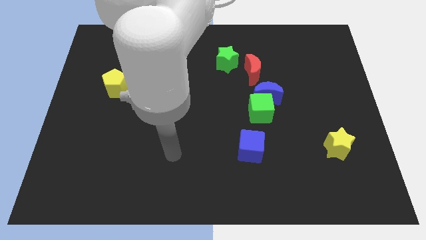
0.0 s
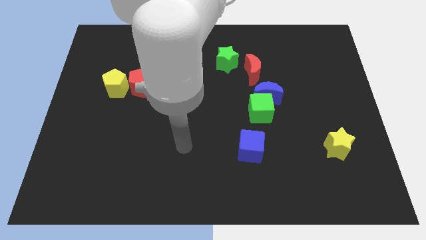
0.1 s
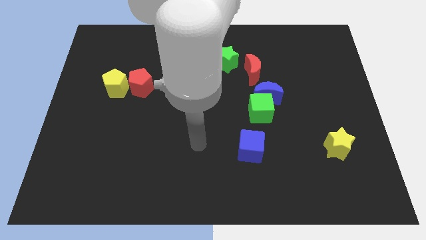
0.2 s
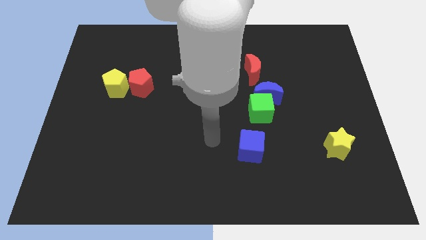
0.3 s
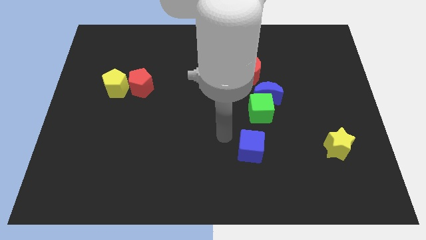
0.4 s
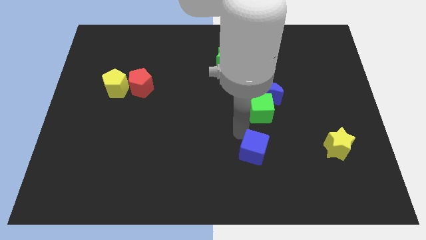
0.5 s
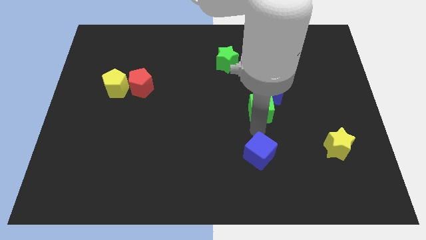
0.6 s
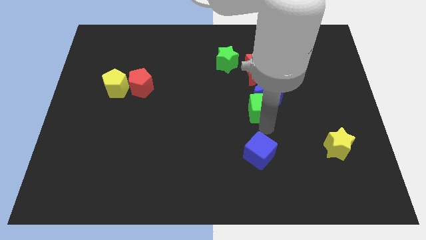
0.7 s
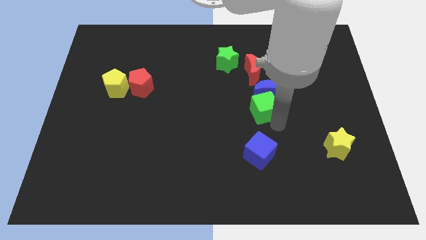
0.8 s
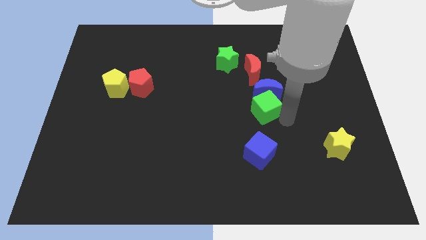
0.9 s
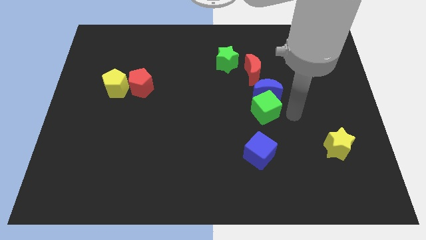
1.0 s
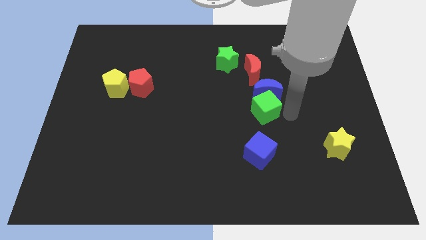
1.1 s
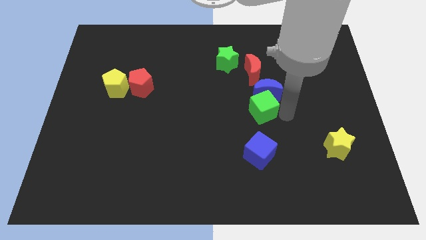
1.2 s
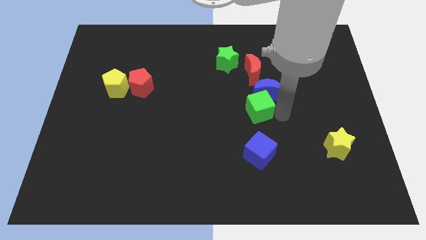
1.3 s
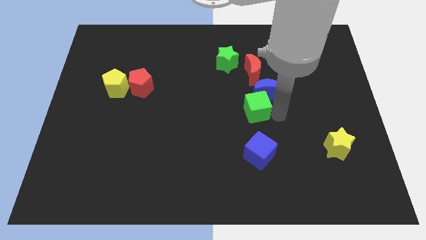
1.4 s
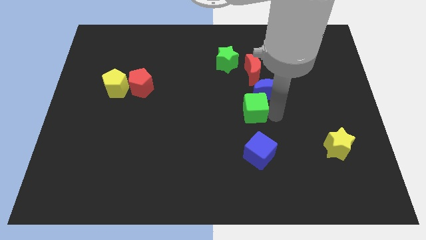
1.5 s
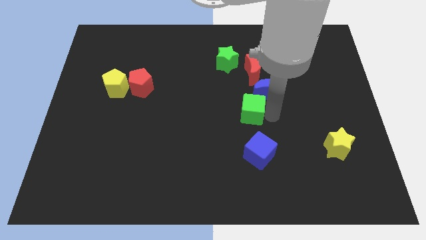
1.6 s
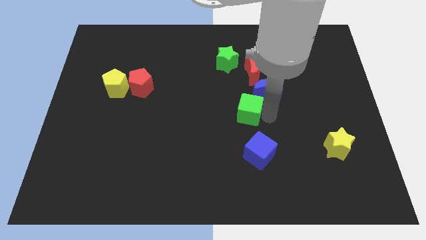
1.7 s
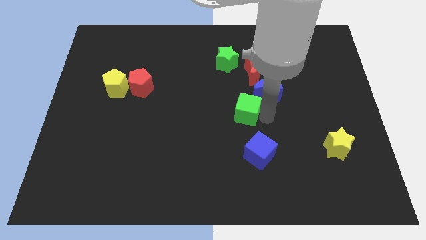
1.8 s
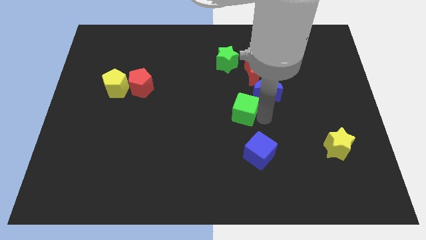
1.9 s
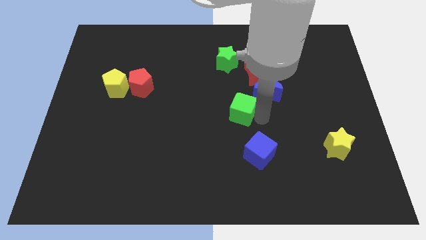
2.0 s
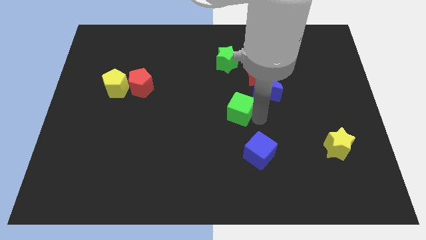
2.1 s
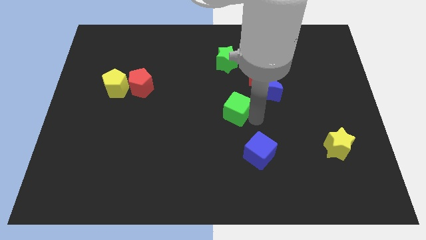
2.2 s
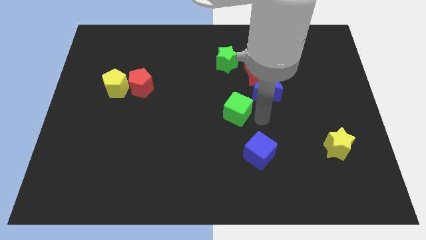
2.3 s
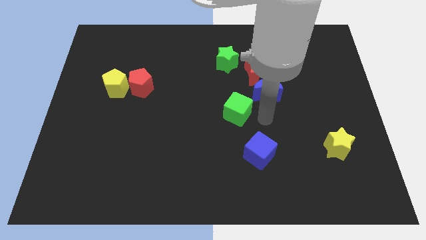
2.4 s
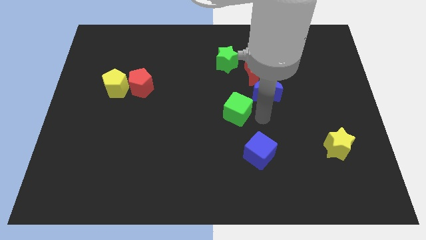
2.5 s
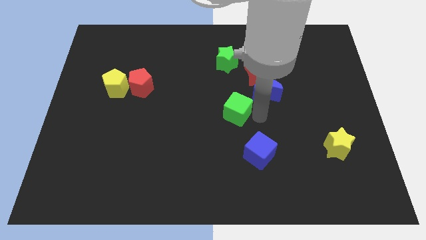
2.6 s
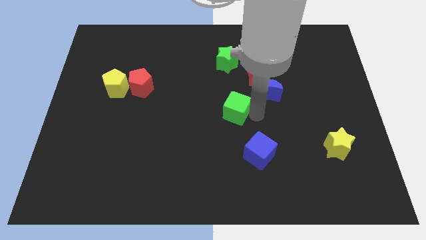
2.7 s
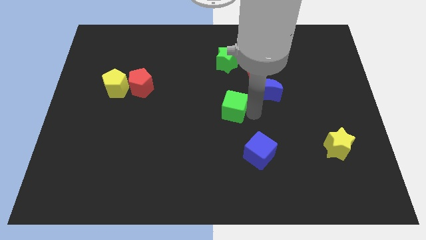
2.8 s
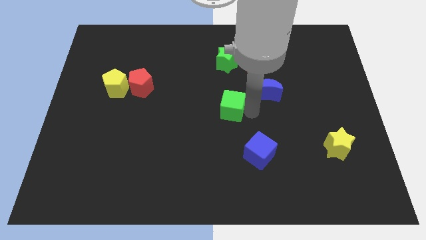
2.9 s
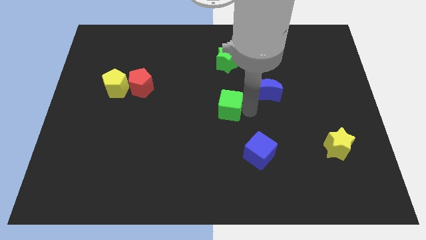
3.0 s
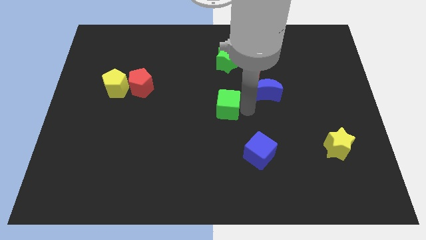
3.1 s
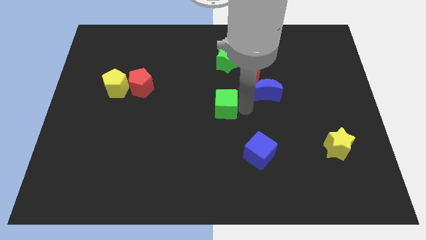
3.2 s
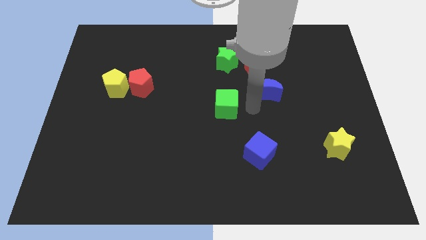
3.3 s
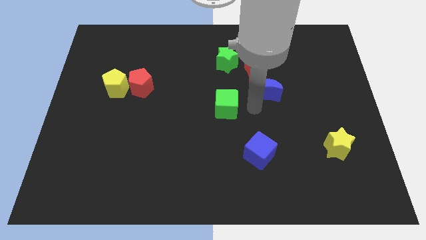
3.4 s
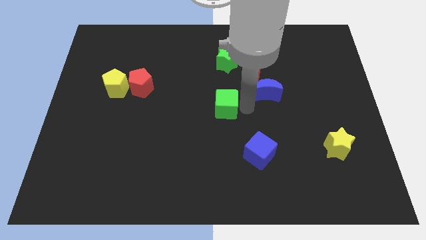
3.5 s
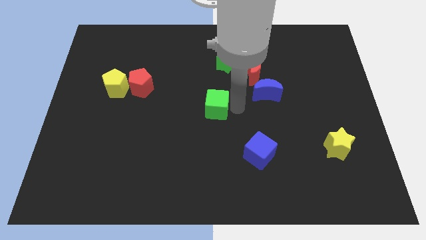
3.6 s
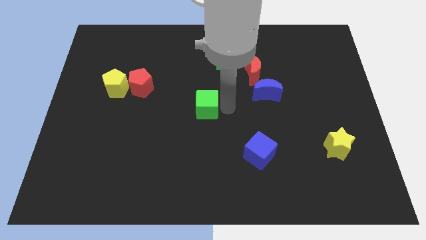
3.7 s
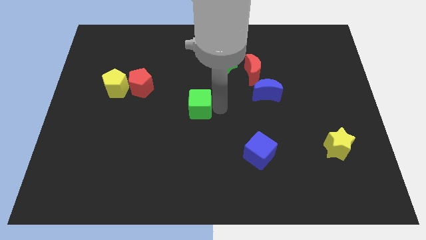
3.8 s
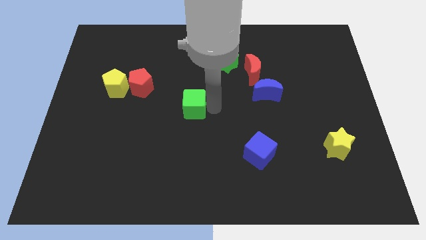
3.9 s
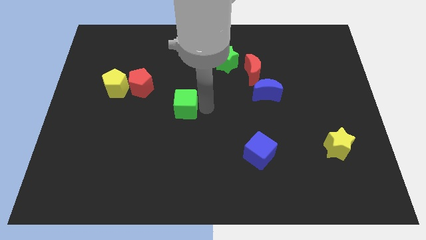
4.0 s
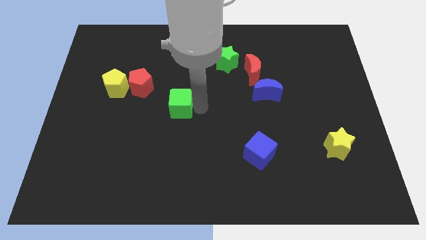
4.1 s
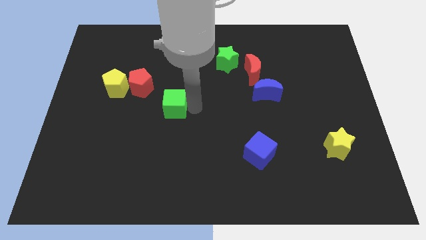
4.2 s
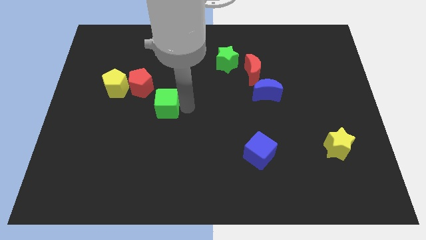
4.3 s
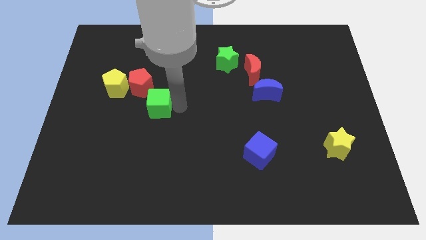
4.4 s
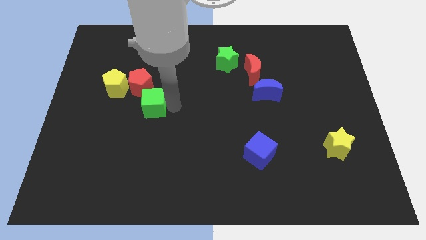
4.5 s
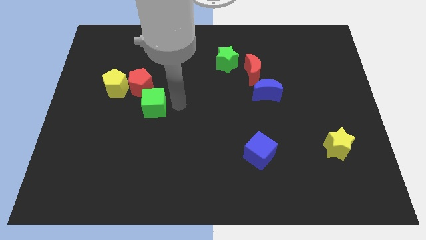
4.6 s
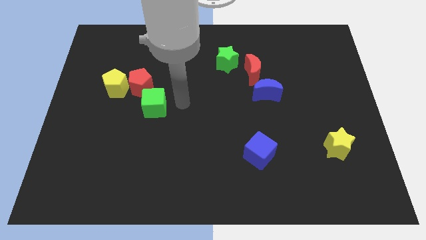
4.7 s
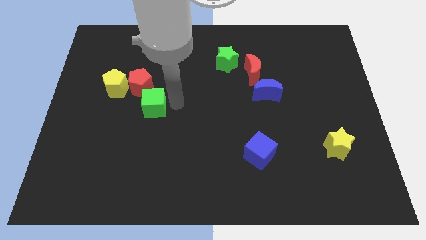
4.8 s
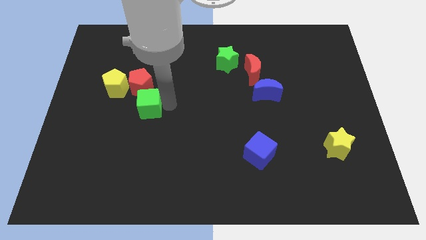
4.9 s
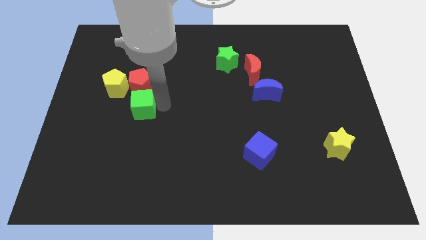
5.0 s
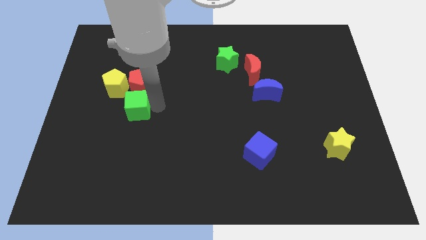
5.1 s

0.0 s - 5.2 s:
push the green cube to the bottom left side of the red pentagon

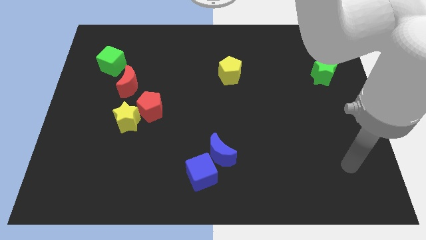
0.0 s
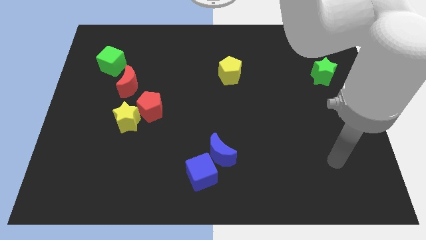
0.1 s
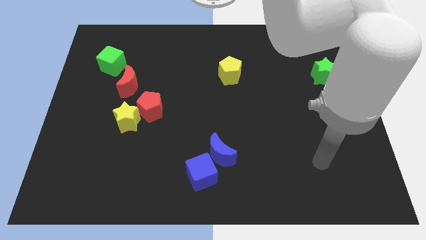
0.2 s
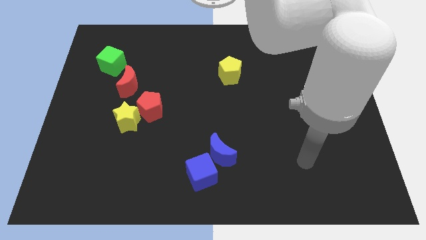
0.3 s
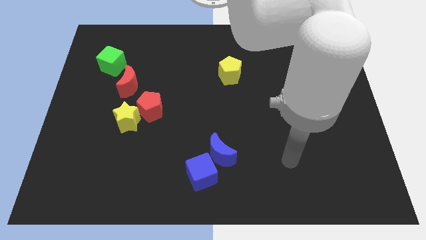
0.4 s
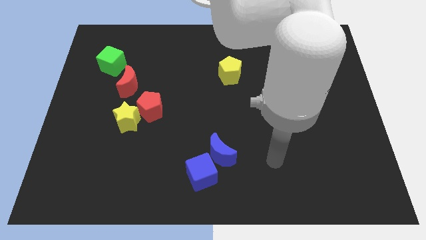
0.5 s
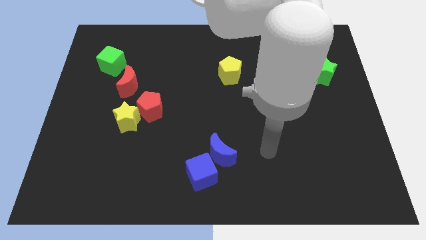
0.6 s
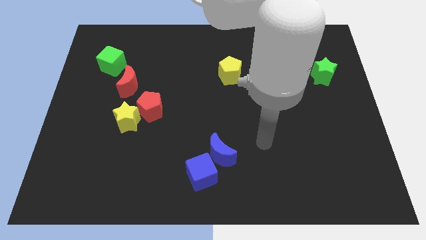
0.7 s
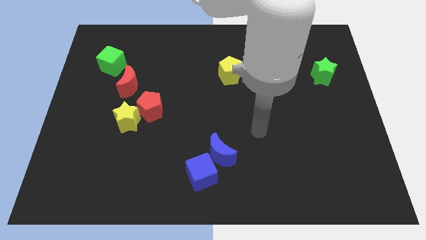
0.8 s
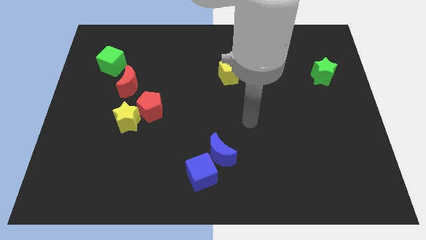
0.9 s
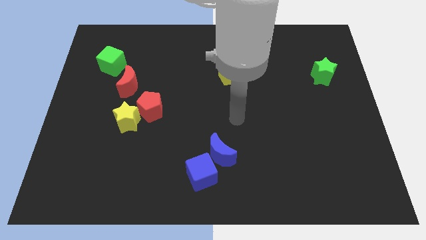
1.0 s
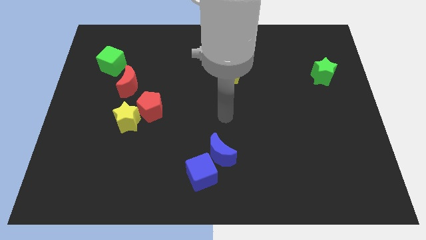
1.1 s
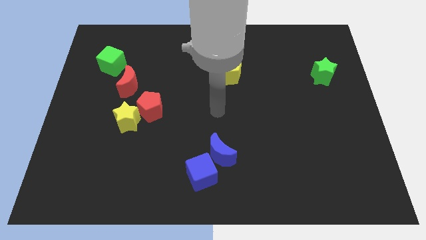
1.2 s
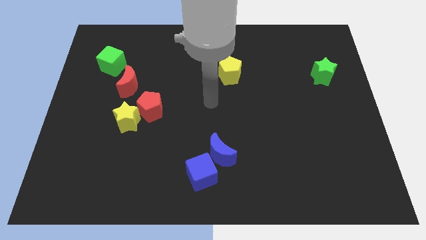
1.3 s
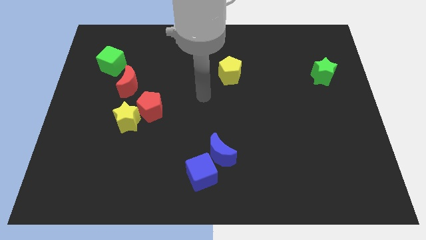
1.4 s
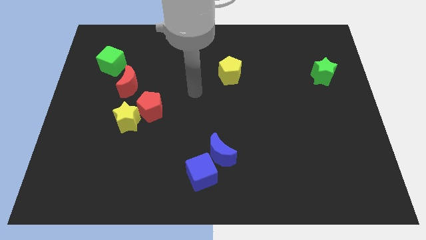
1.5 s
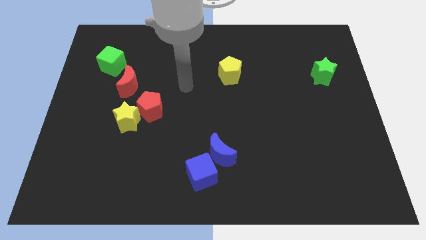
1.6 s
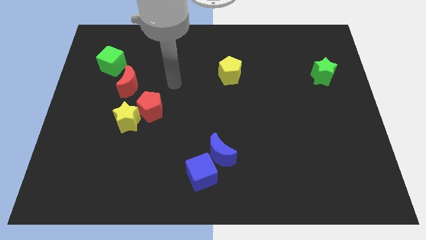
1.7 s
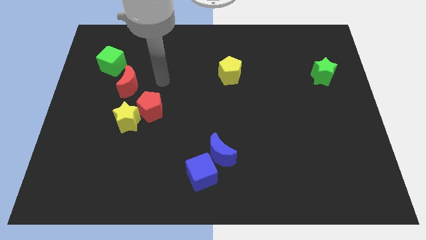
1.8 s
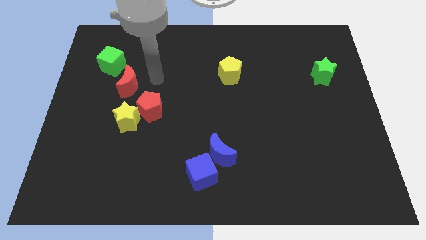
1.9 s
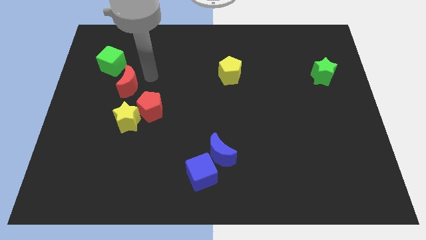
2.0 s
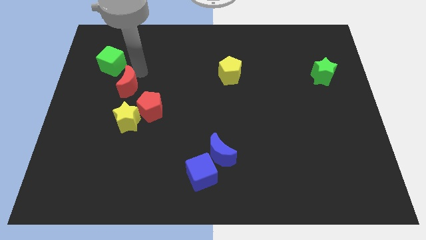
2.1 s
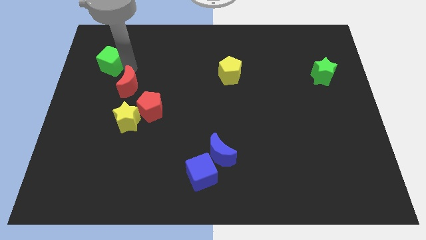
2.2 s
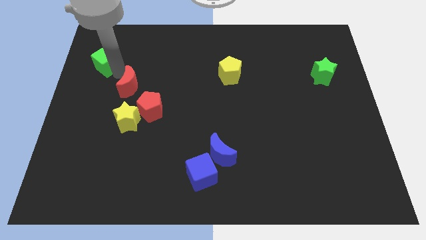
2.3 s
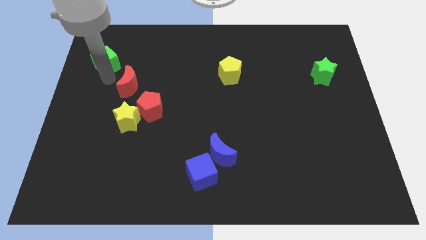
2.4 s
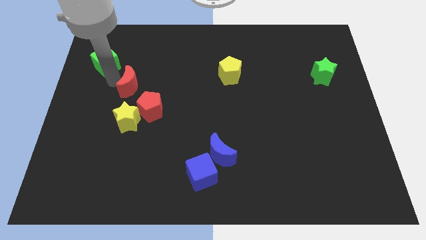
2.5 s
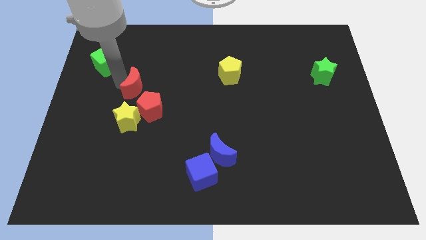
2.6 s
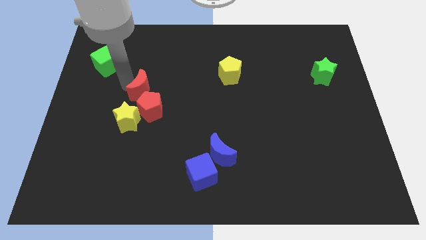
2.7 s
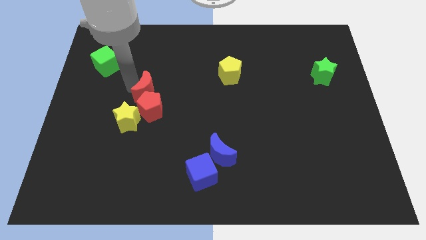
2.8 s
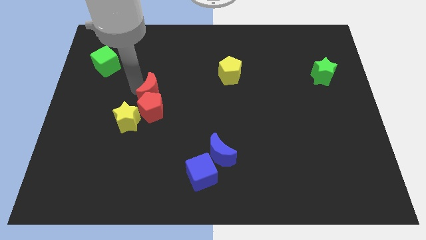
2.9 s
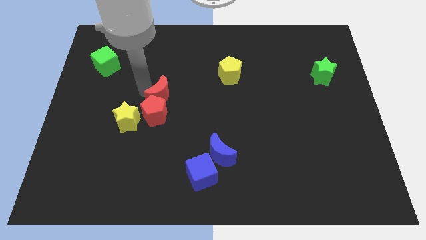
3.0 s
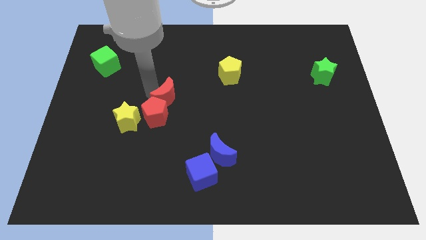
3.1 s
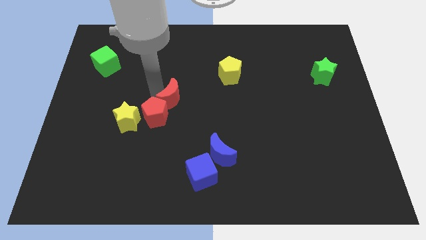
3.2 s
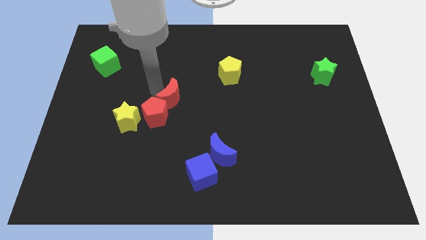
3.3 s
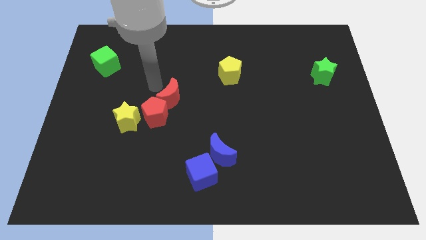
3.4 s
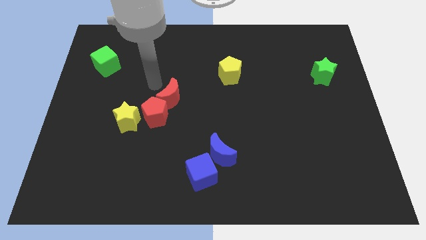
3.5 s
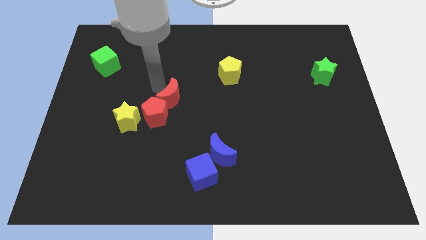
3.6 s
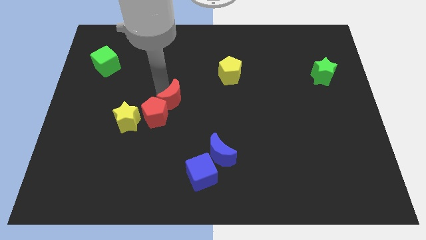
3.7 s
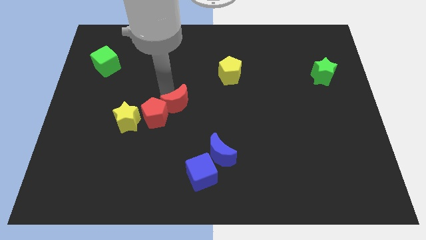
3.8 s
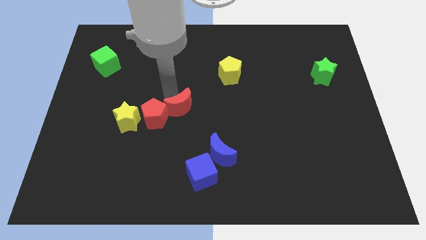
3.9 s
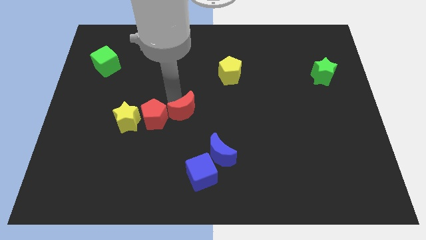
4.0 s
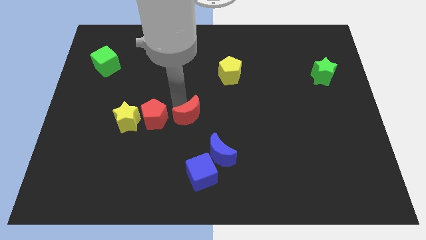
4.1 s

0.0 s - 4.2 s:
put the red moon to the top of the blue cube
